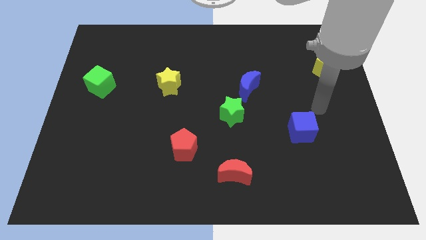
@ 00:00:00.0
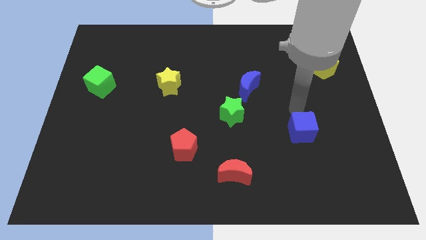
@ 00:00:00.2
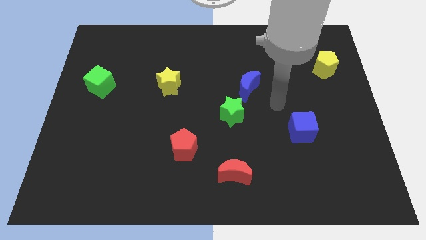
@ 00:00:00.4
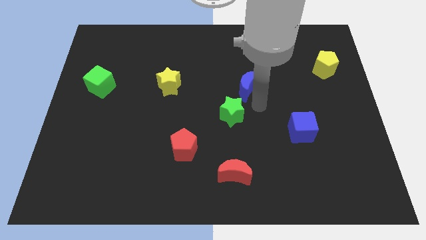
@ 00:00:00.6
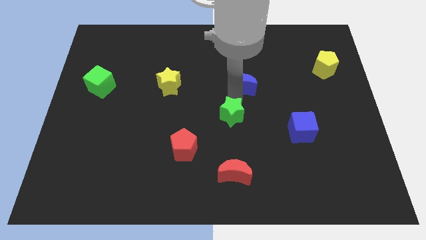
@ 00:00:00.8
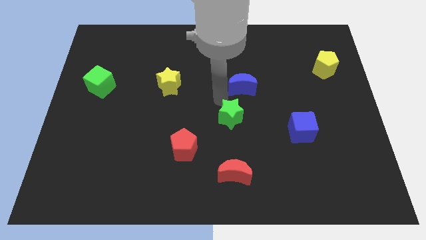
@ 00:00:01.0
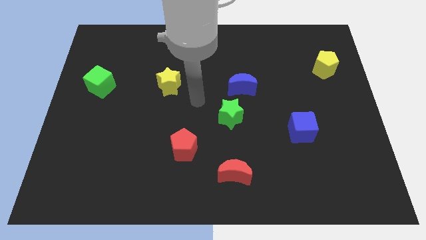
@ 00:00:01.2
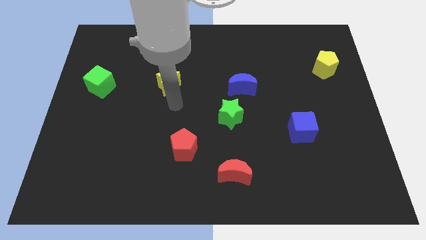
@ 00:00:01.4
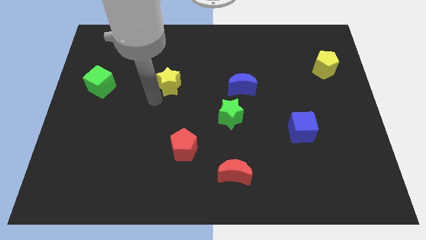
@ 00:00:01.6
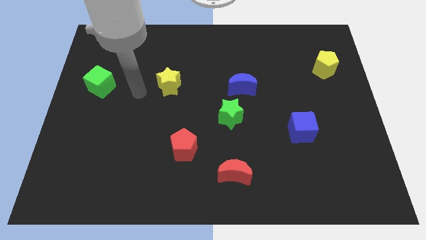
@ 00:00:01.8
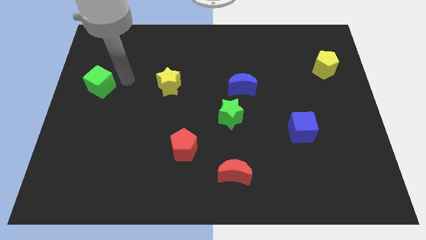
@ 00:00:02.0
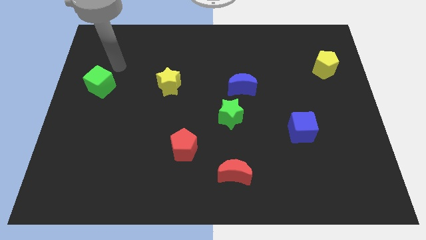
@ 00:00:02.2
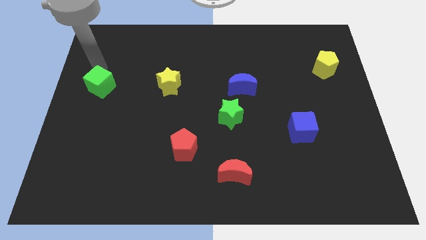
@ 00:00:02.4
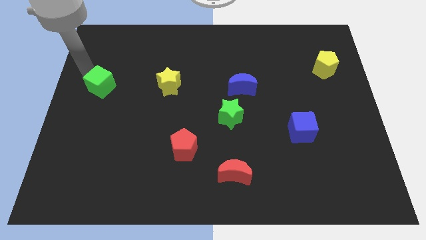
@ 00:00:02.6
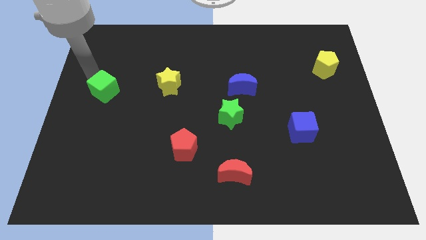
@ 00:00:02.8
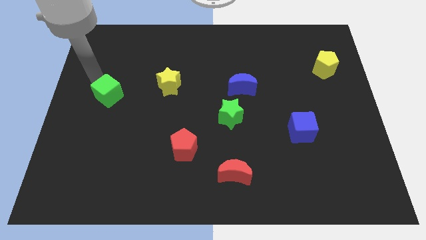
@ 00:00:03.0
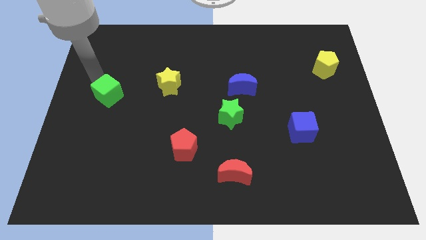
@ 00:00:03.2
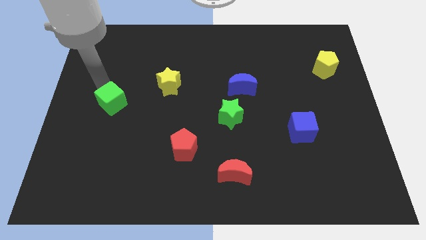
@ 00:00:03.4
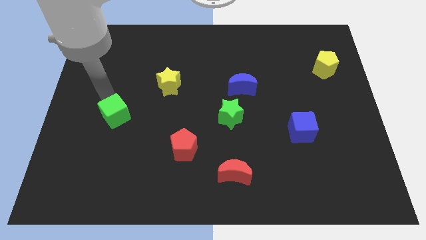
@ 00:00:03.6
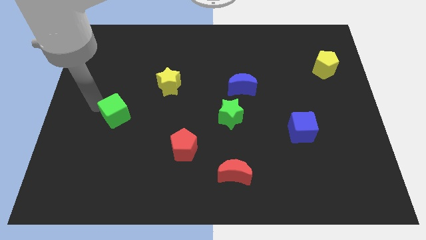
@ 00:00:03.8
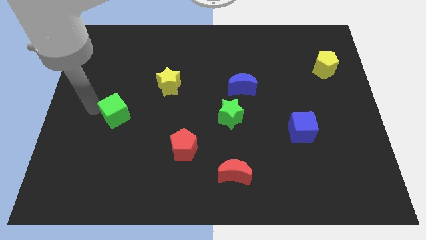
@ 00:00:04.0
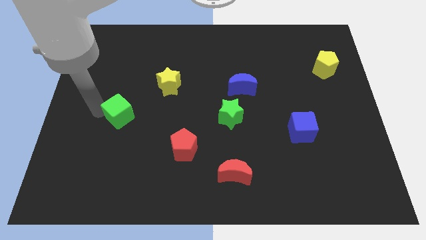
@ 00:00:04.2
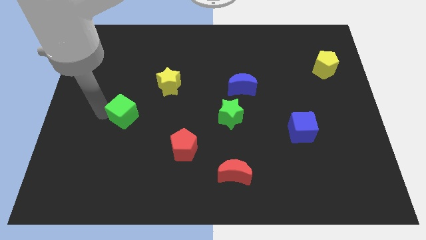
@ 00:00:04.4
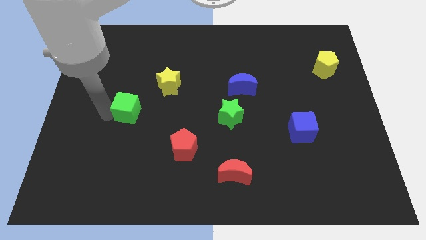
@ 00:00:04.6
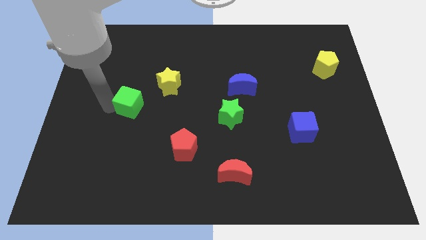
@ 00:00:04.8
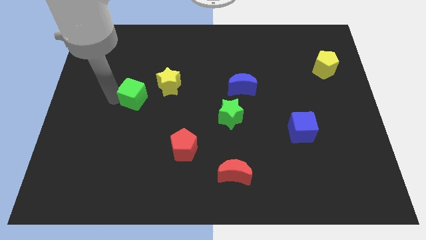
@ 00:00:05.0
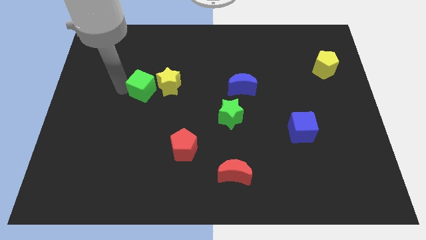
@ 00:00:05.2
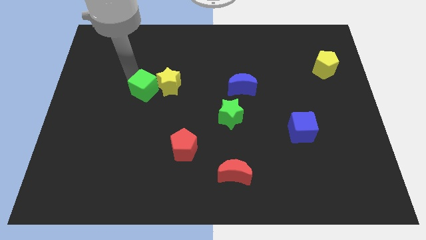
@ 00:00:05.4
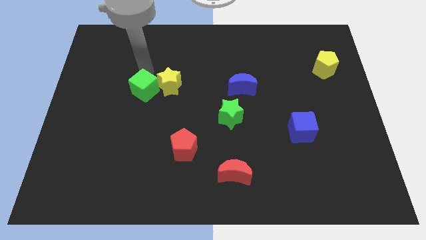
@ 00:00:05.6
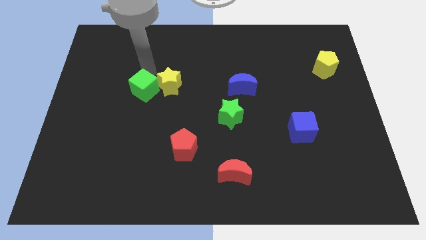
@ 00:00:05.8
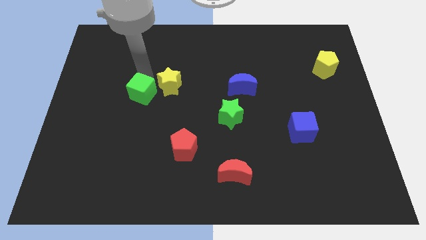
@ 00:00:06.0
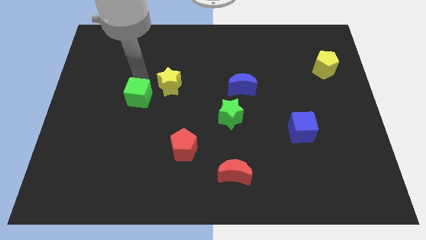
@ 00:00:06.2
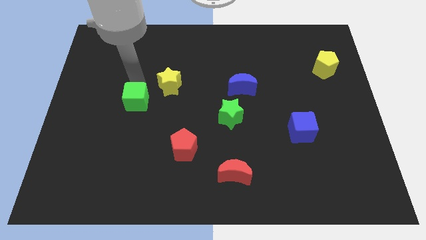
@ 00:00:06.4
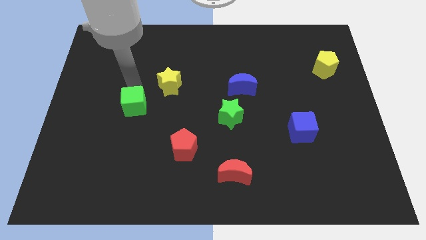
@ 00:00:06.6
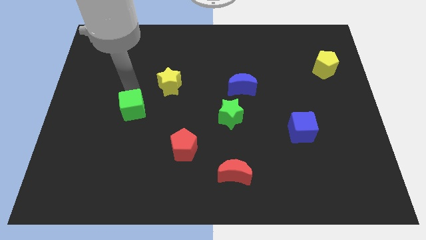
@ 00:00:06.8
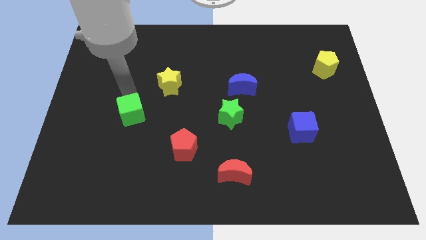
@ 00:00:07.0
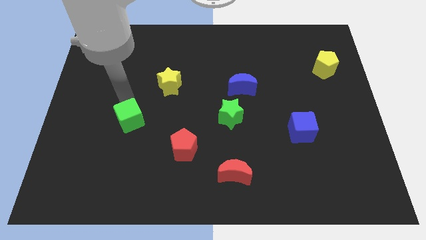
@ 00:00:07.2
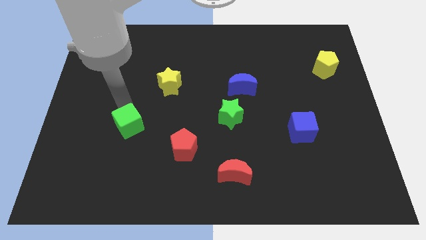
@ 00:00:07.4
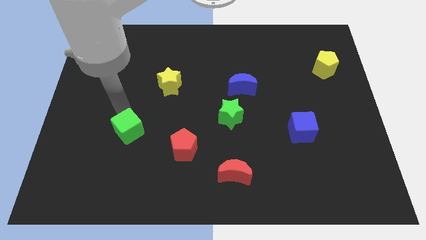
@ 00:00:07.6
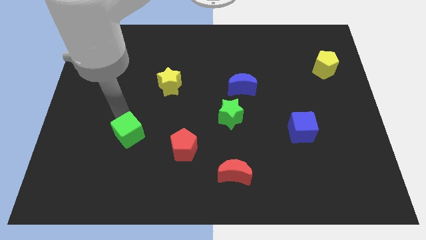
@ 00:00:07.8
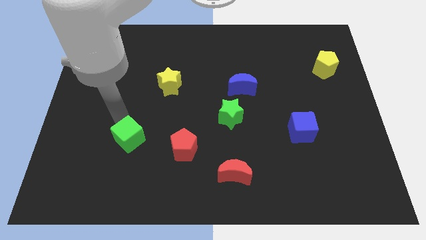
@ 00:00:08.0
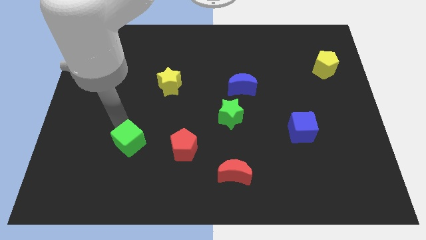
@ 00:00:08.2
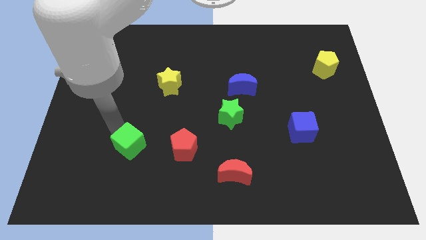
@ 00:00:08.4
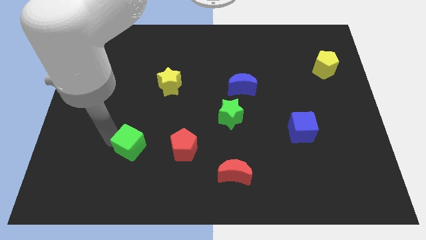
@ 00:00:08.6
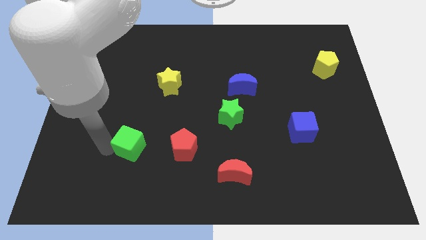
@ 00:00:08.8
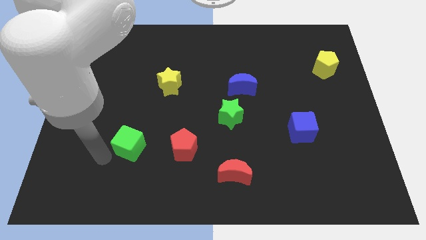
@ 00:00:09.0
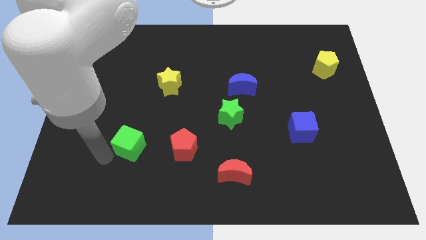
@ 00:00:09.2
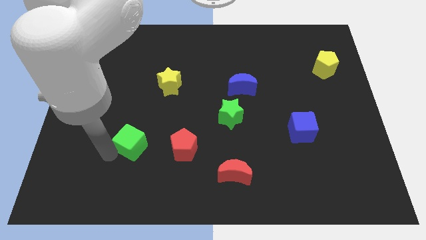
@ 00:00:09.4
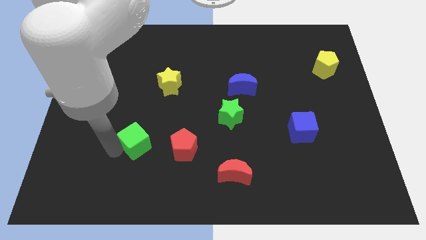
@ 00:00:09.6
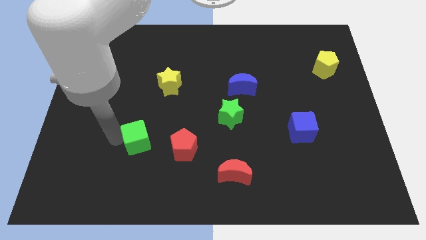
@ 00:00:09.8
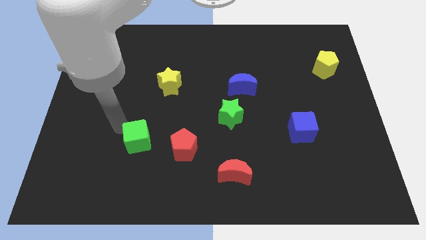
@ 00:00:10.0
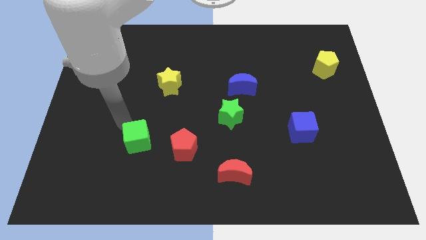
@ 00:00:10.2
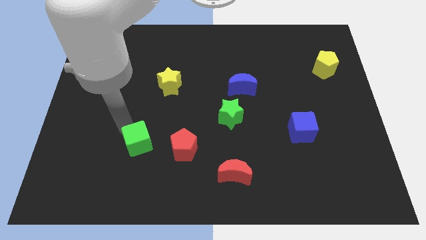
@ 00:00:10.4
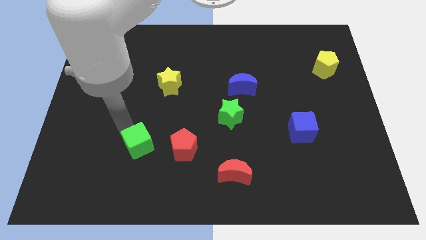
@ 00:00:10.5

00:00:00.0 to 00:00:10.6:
push the green cube downwards and right diagonally

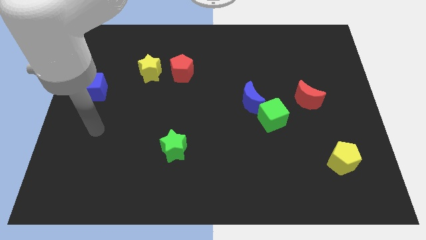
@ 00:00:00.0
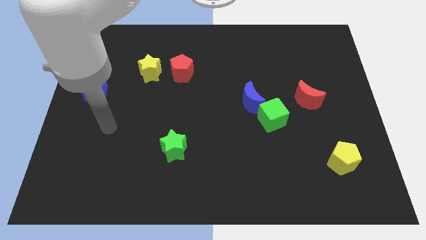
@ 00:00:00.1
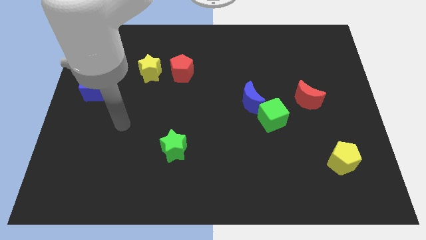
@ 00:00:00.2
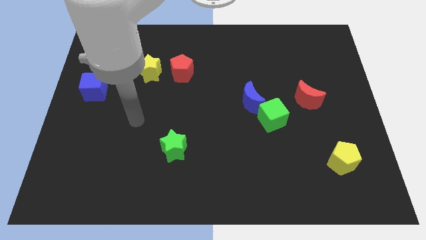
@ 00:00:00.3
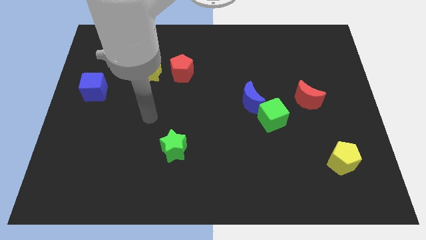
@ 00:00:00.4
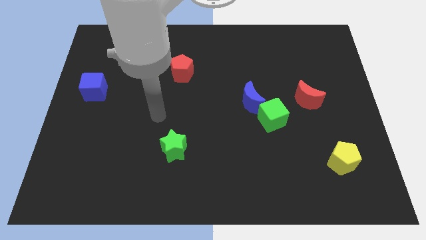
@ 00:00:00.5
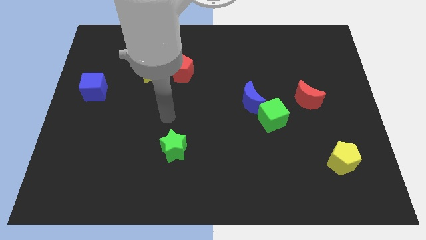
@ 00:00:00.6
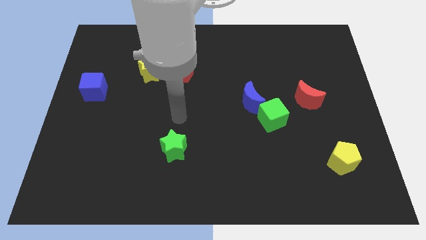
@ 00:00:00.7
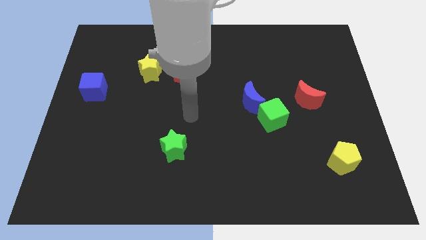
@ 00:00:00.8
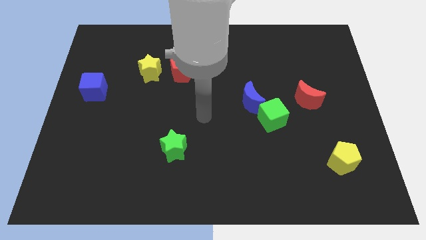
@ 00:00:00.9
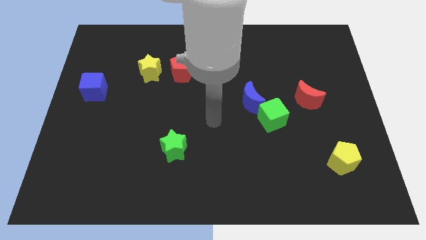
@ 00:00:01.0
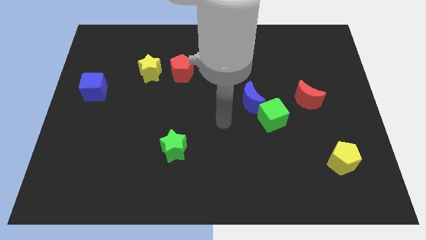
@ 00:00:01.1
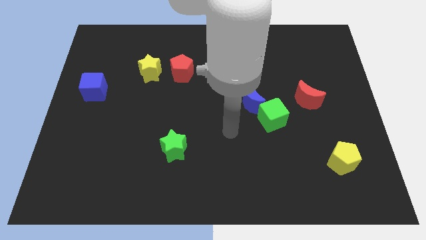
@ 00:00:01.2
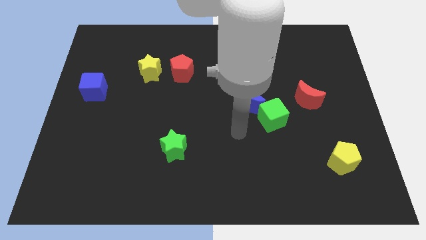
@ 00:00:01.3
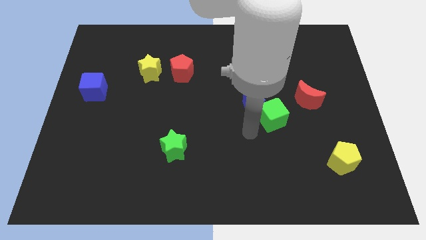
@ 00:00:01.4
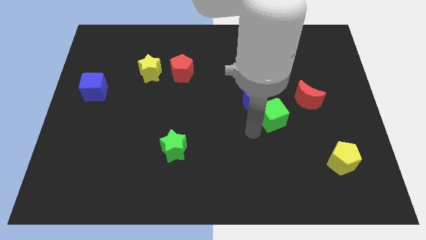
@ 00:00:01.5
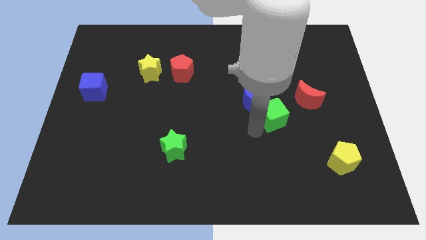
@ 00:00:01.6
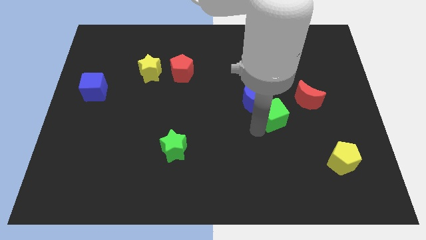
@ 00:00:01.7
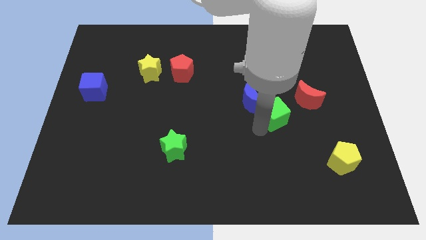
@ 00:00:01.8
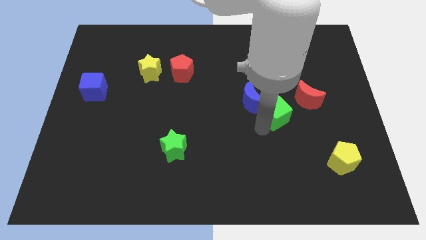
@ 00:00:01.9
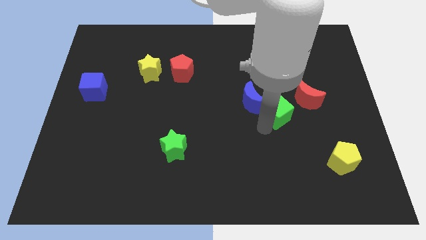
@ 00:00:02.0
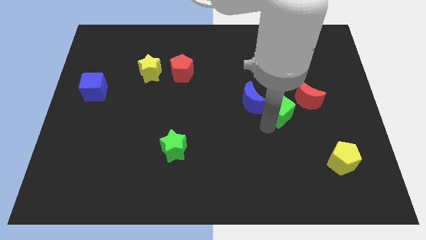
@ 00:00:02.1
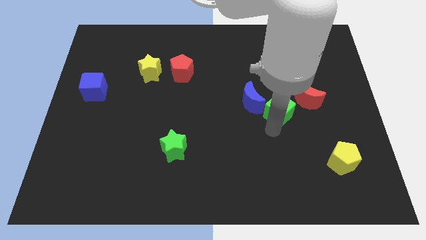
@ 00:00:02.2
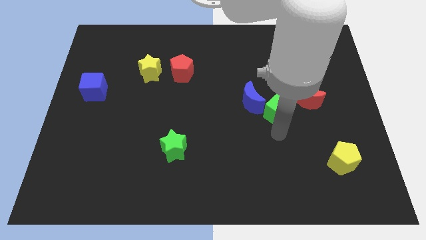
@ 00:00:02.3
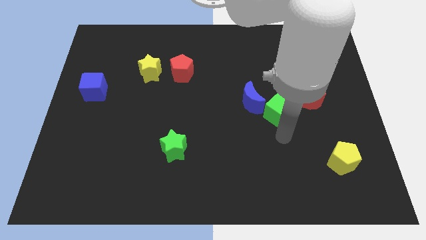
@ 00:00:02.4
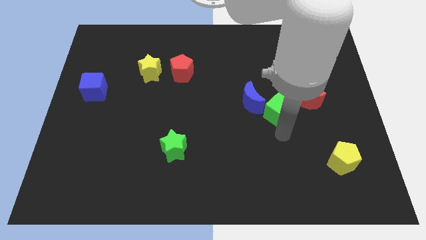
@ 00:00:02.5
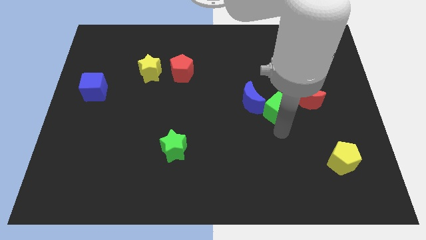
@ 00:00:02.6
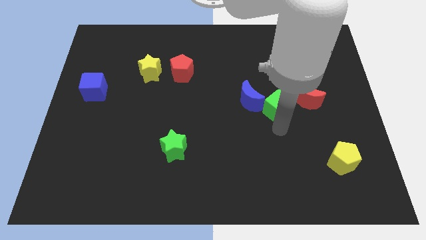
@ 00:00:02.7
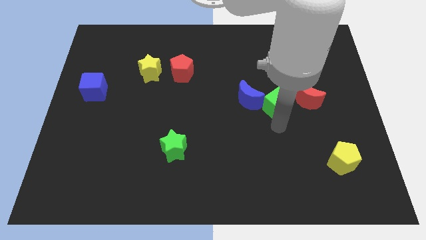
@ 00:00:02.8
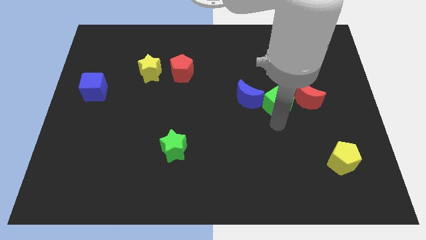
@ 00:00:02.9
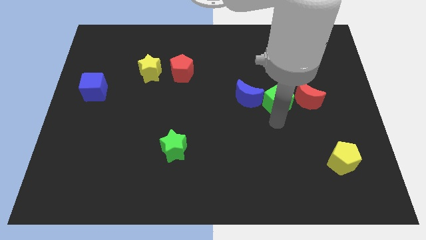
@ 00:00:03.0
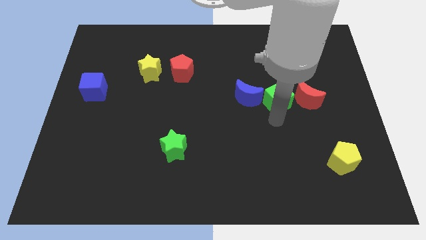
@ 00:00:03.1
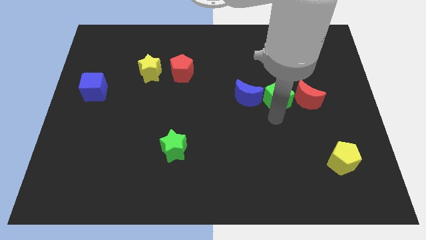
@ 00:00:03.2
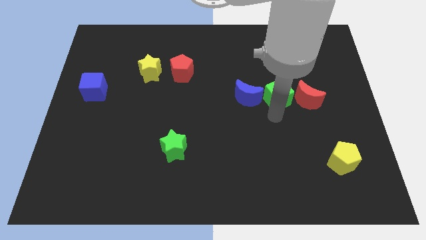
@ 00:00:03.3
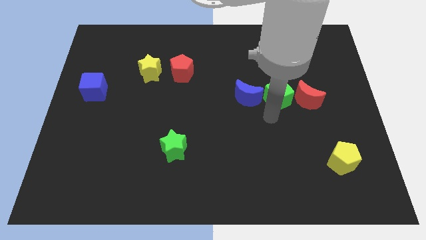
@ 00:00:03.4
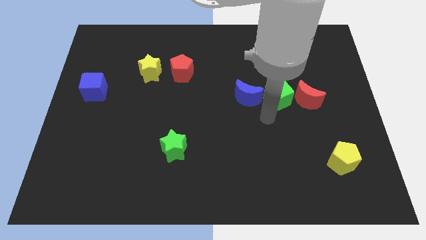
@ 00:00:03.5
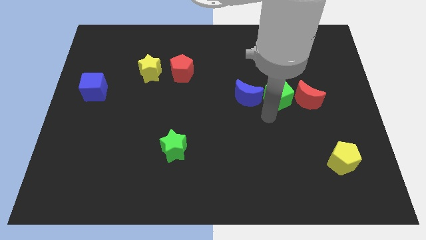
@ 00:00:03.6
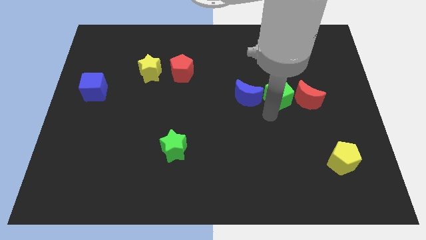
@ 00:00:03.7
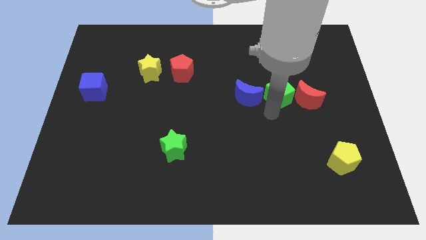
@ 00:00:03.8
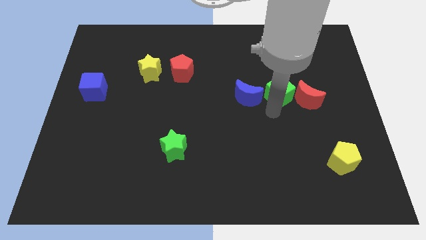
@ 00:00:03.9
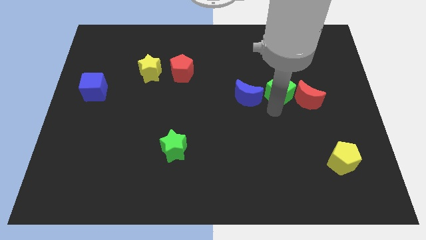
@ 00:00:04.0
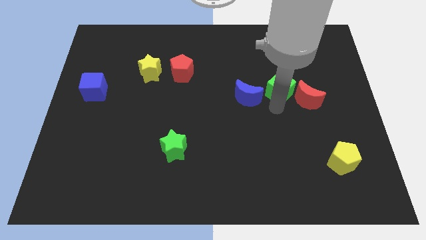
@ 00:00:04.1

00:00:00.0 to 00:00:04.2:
move the green cube a little bit upwards and right diagonally
